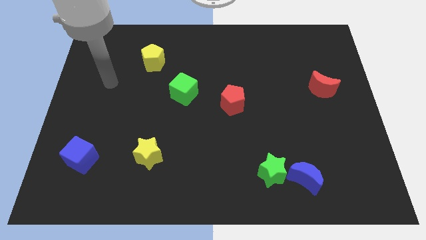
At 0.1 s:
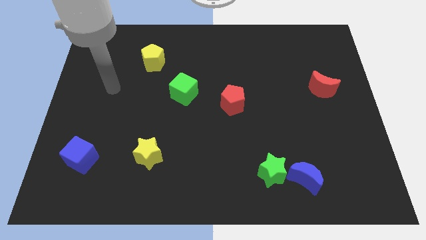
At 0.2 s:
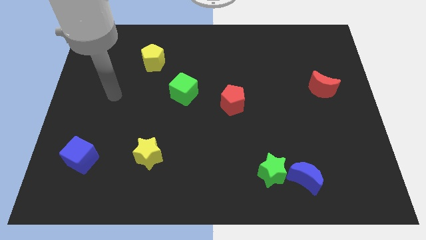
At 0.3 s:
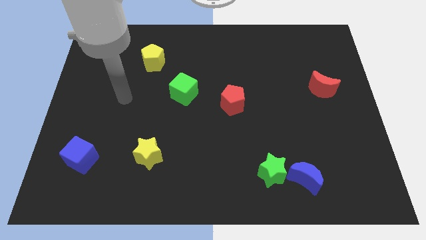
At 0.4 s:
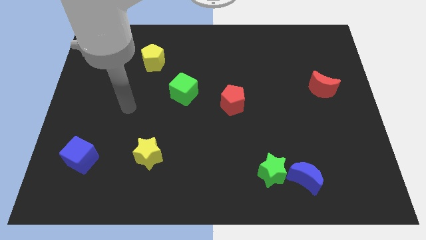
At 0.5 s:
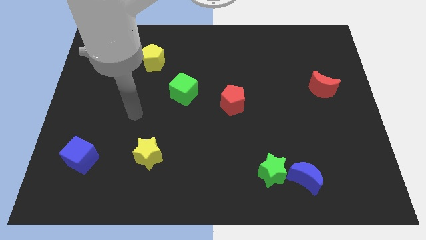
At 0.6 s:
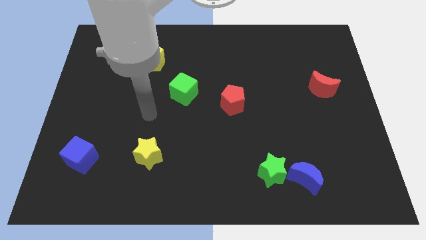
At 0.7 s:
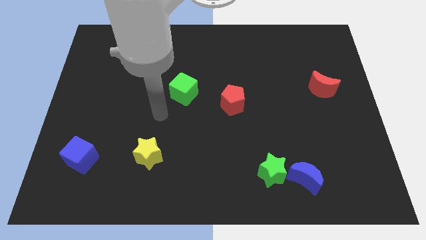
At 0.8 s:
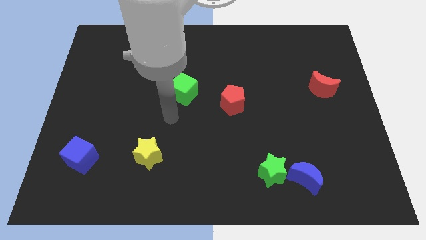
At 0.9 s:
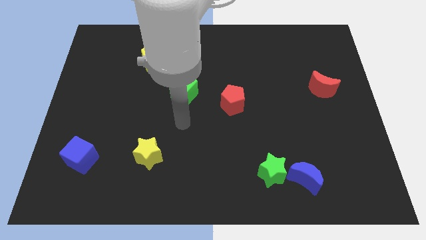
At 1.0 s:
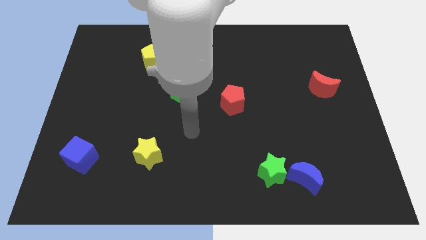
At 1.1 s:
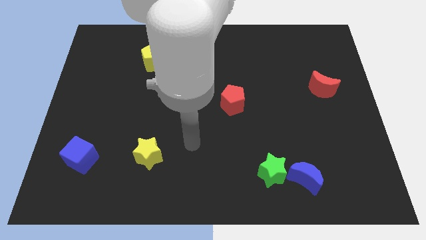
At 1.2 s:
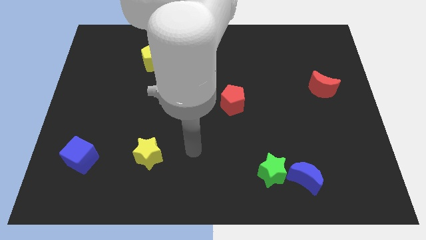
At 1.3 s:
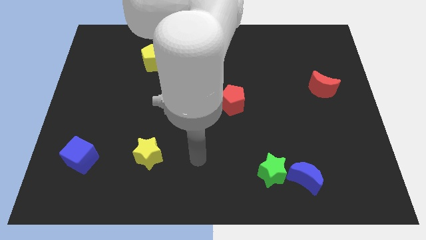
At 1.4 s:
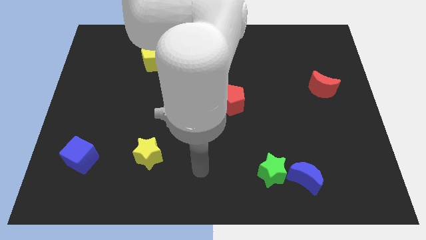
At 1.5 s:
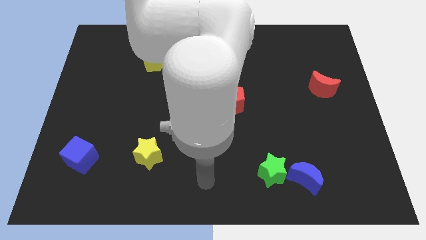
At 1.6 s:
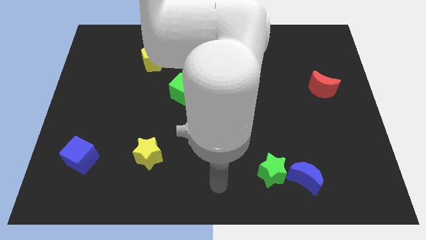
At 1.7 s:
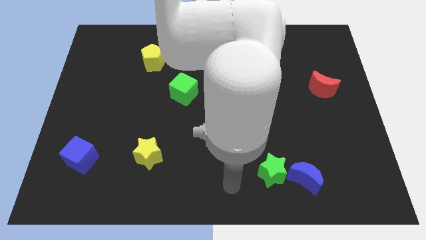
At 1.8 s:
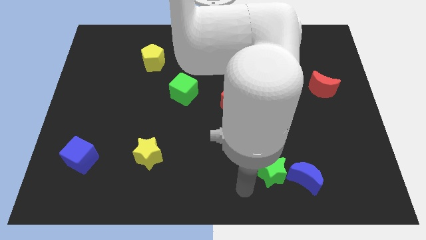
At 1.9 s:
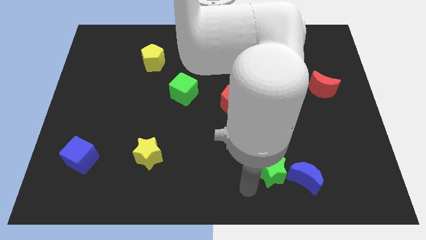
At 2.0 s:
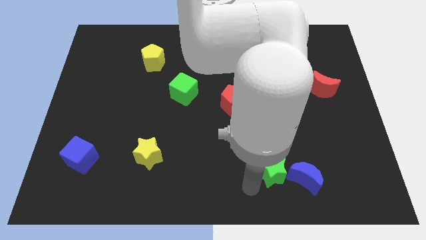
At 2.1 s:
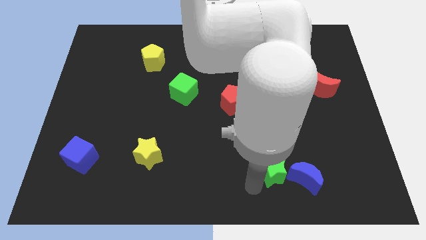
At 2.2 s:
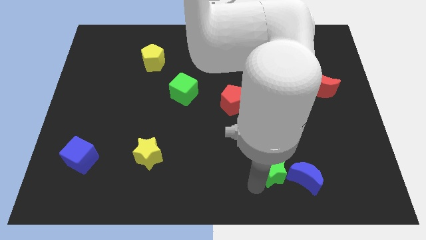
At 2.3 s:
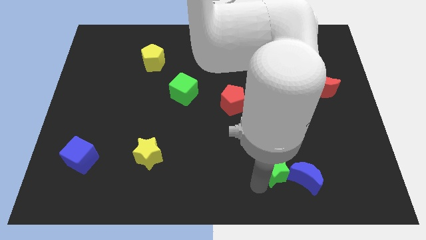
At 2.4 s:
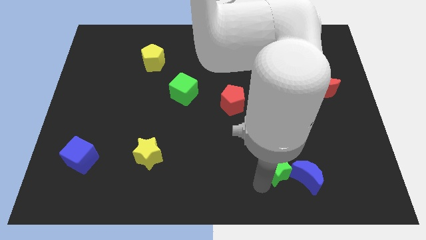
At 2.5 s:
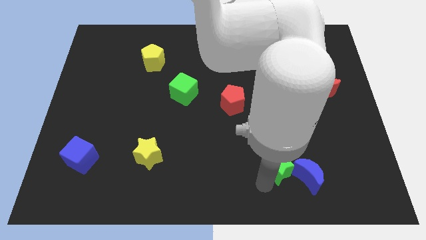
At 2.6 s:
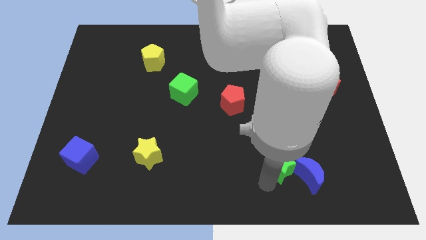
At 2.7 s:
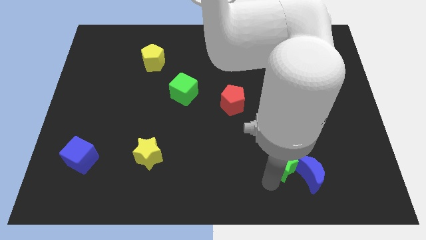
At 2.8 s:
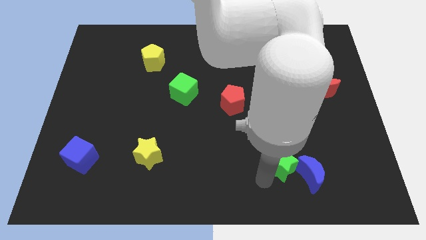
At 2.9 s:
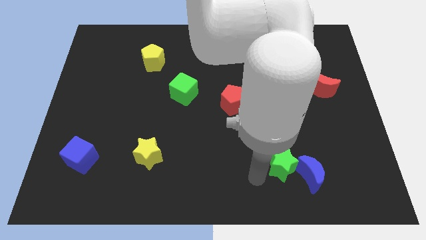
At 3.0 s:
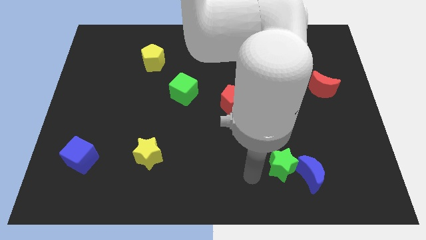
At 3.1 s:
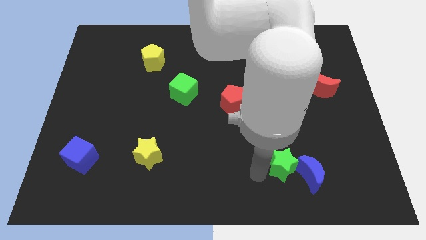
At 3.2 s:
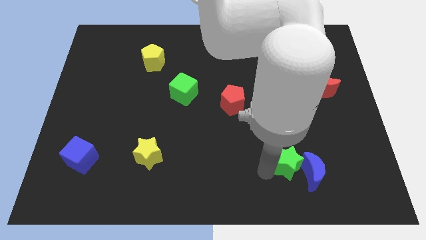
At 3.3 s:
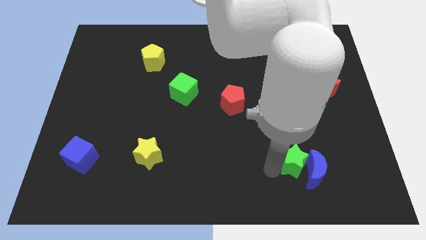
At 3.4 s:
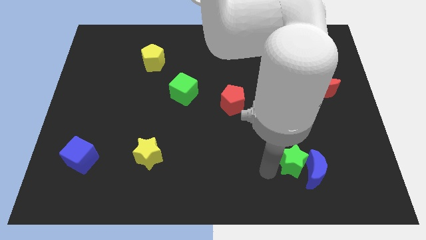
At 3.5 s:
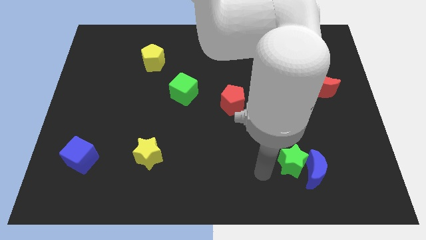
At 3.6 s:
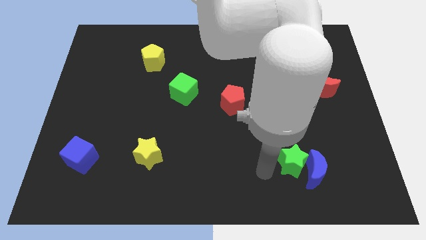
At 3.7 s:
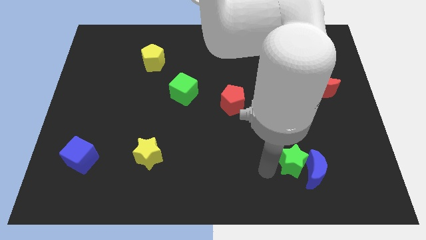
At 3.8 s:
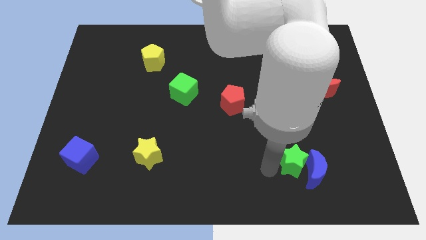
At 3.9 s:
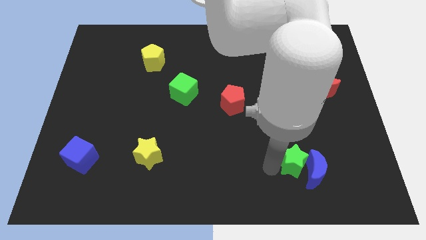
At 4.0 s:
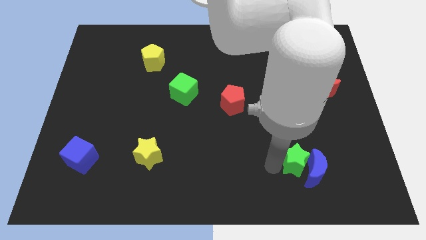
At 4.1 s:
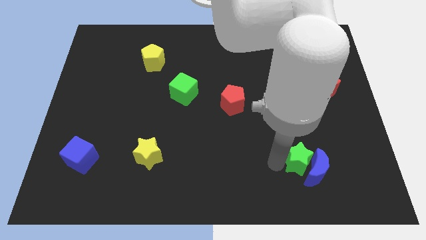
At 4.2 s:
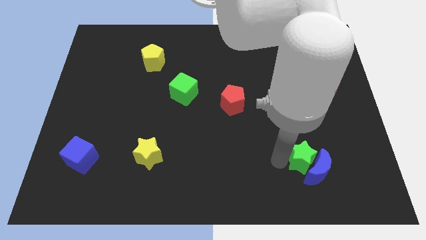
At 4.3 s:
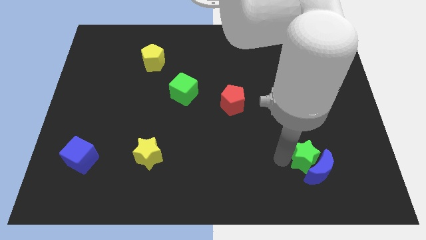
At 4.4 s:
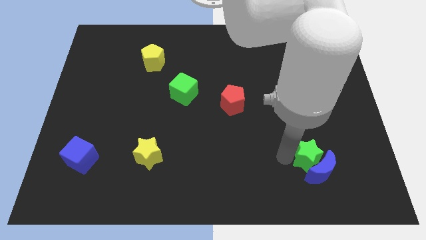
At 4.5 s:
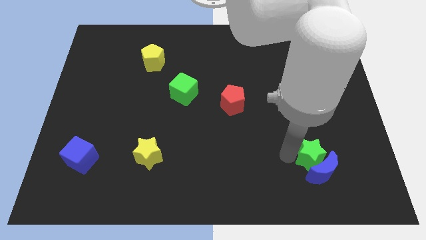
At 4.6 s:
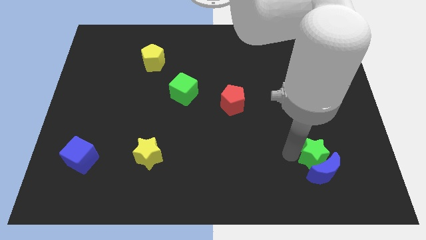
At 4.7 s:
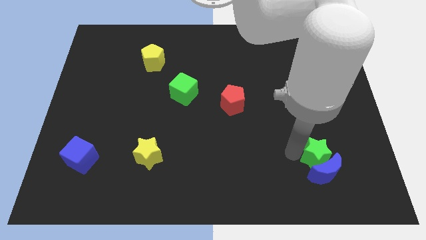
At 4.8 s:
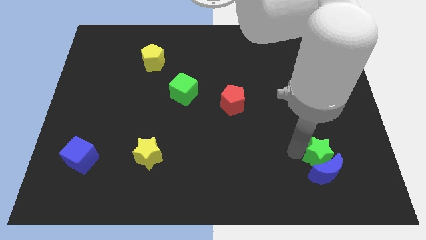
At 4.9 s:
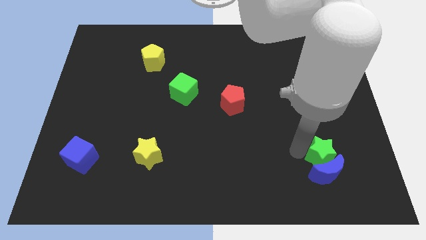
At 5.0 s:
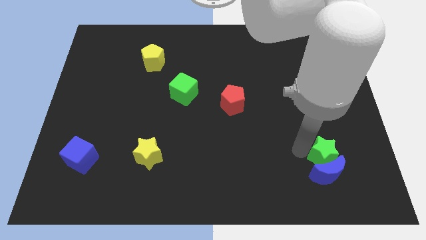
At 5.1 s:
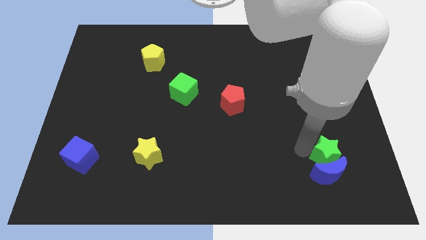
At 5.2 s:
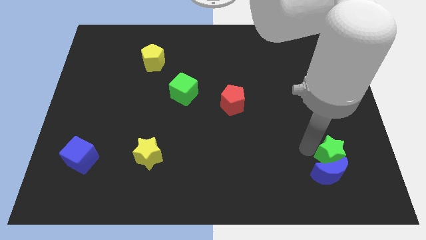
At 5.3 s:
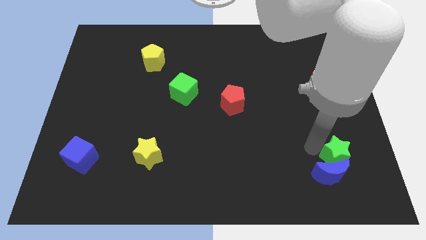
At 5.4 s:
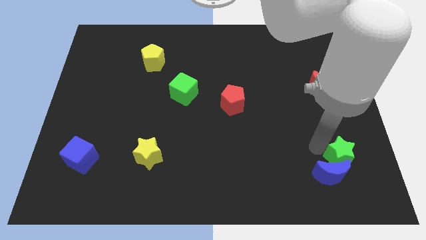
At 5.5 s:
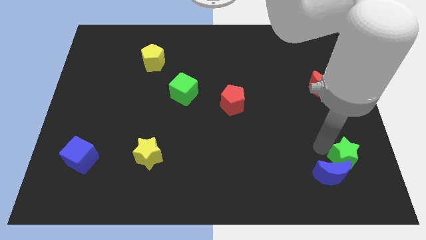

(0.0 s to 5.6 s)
put the green star to the right side of the blue moon
